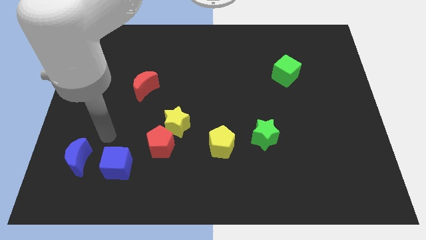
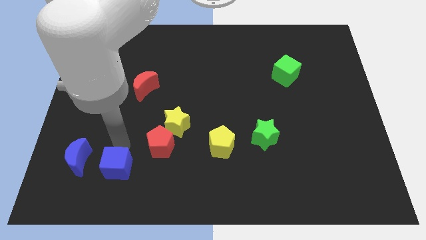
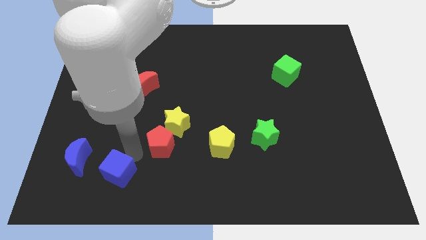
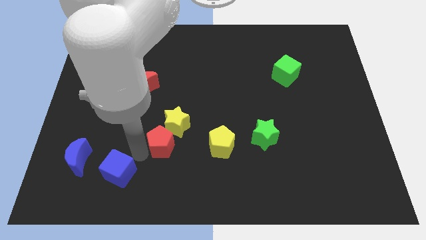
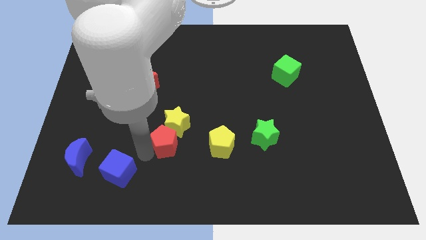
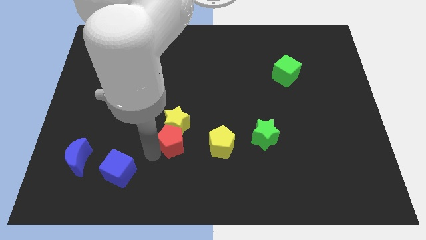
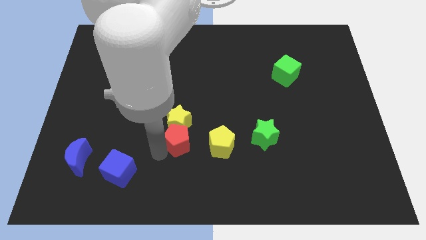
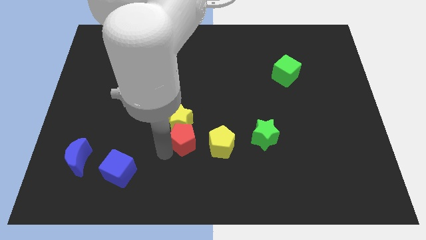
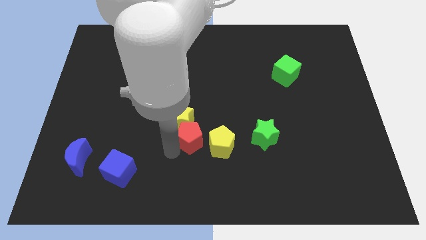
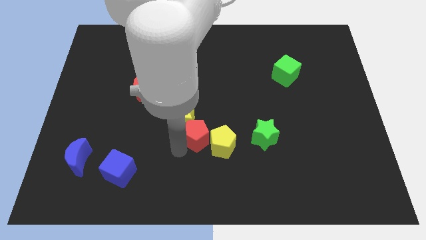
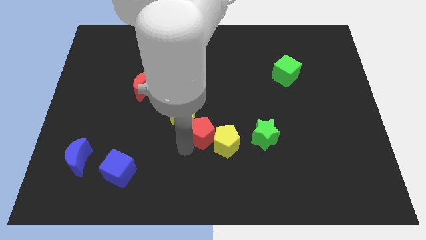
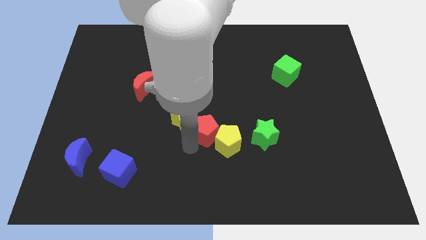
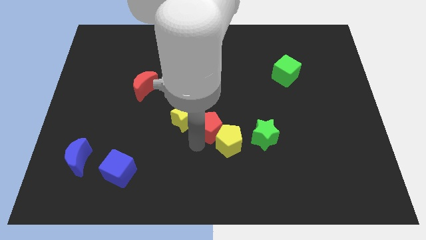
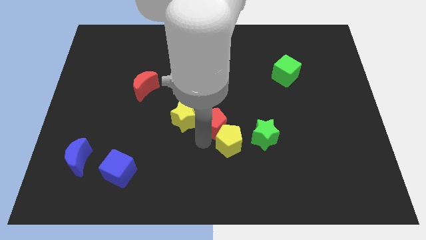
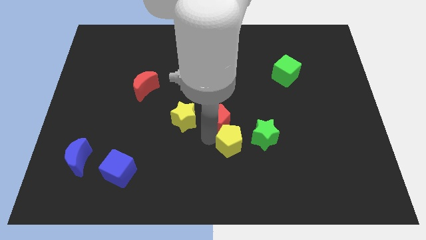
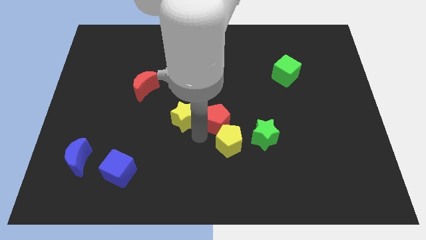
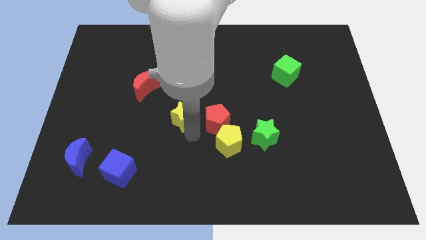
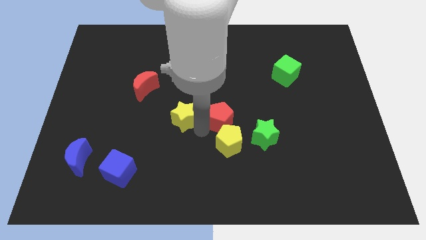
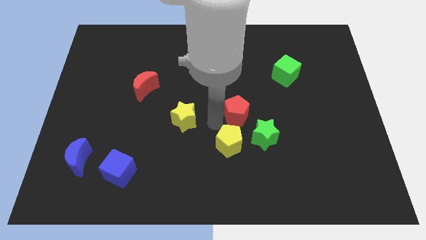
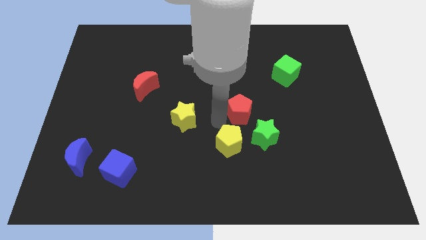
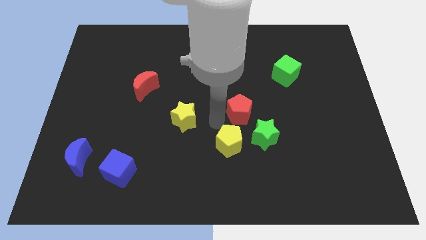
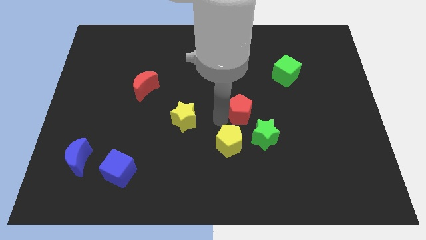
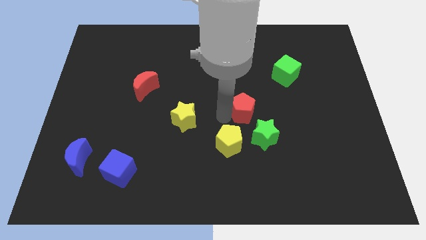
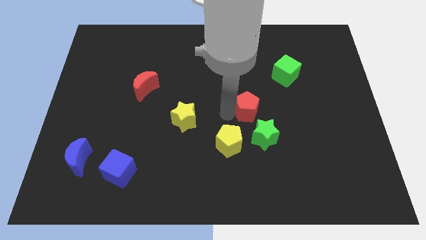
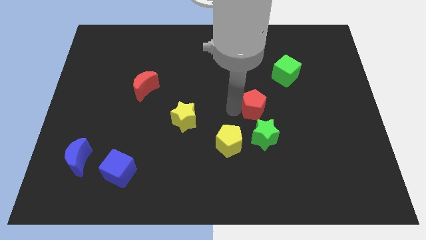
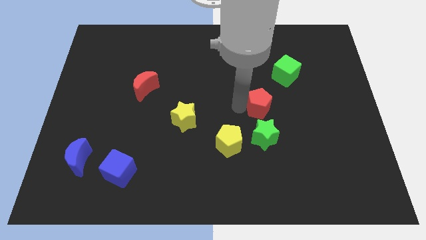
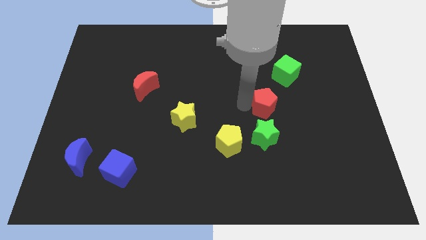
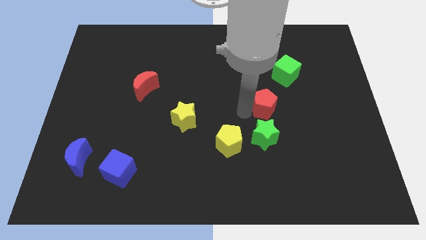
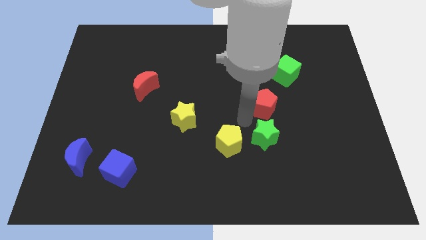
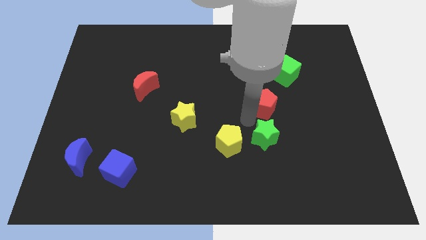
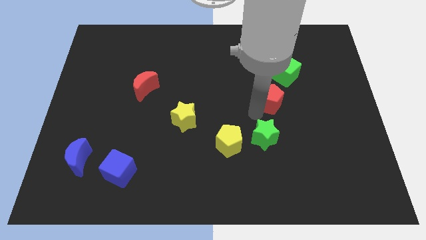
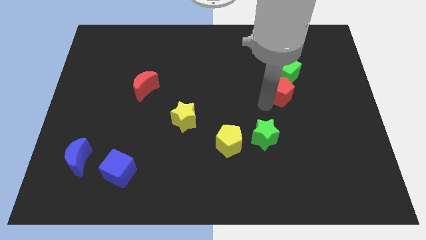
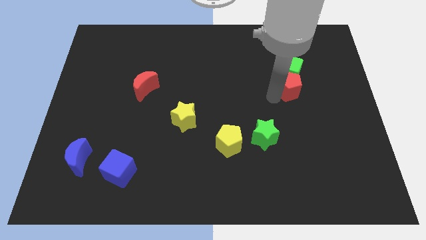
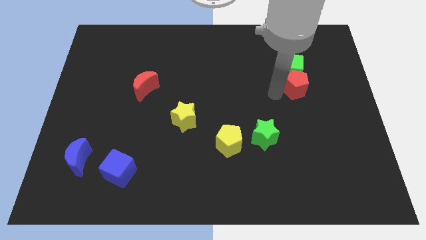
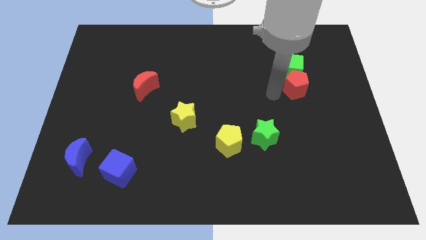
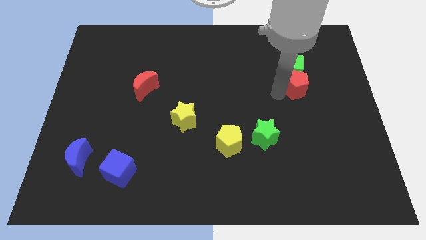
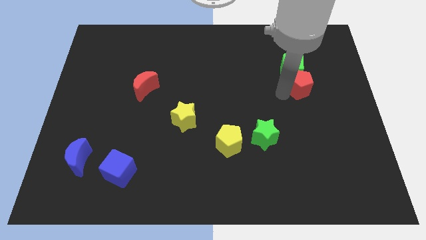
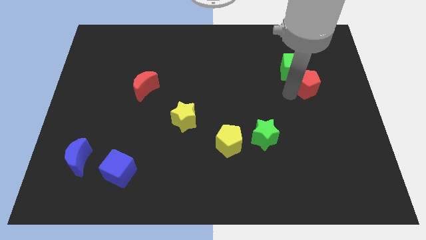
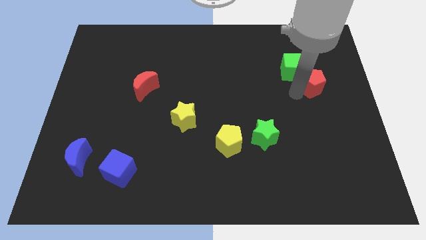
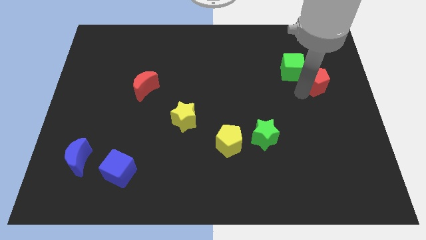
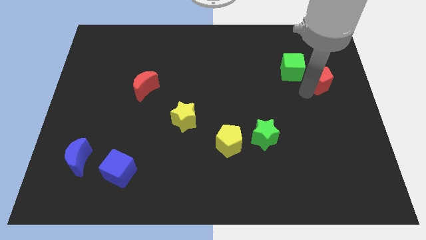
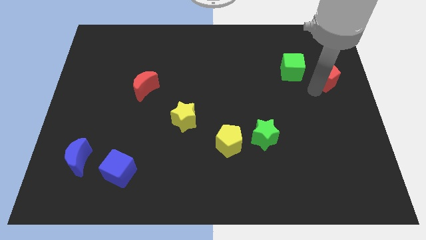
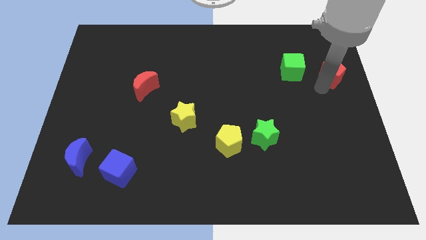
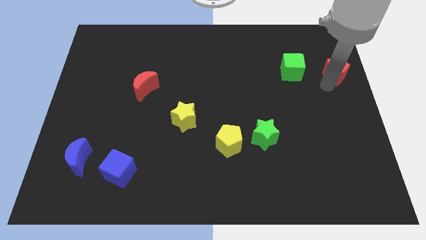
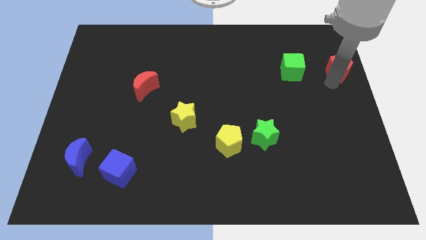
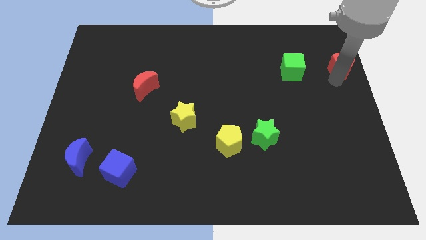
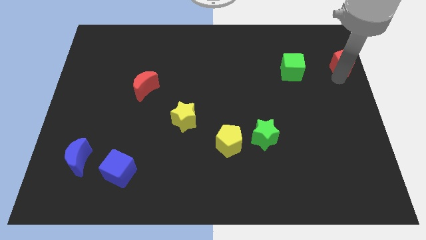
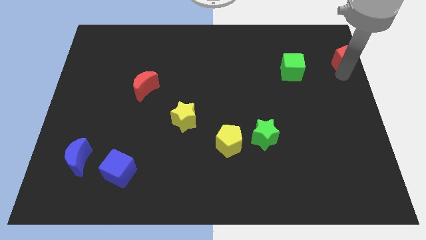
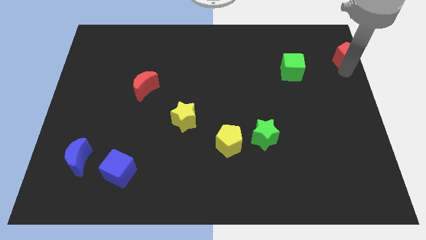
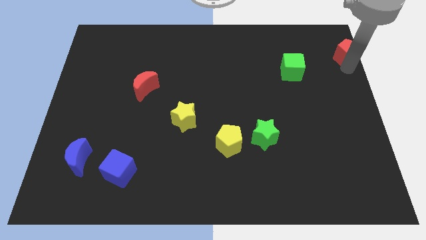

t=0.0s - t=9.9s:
put the red pentagon to the top right corner

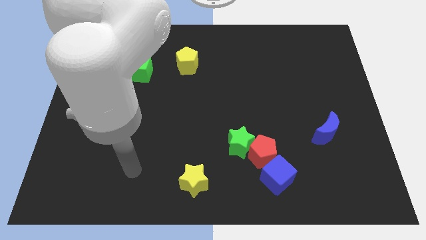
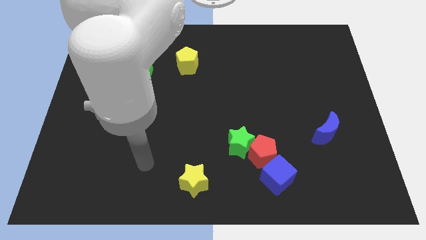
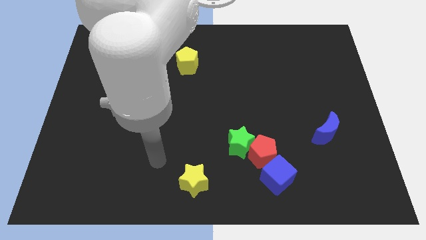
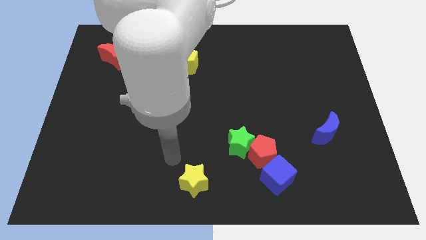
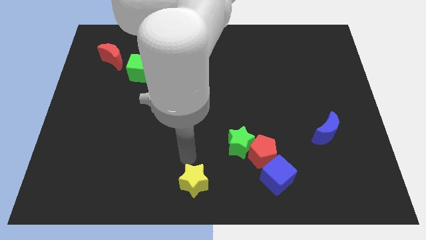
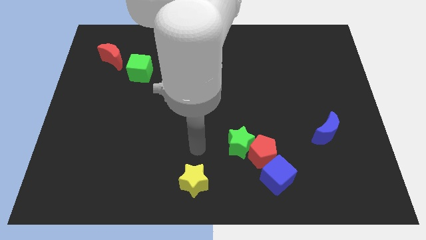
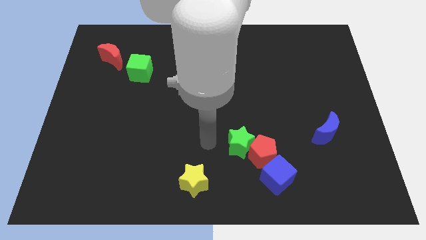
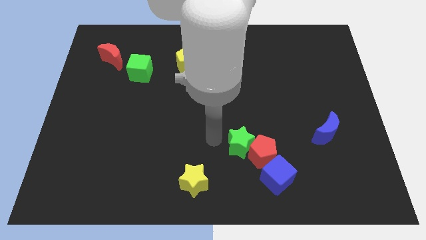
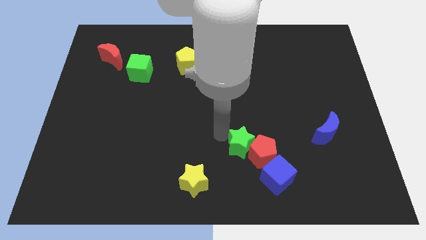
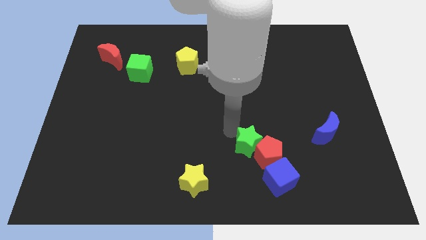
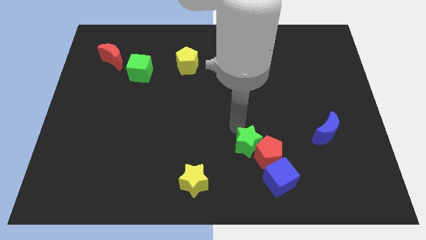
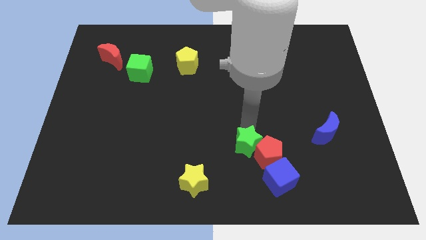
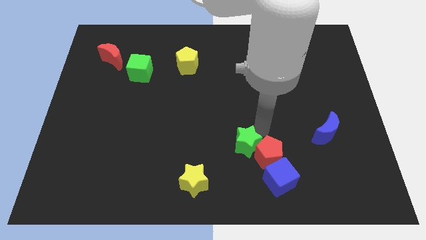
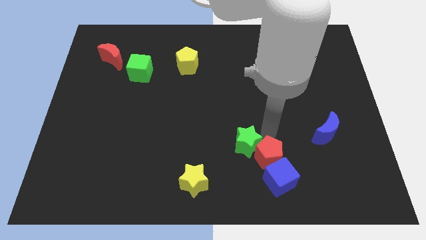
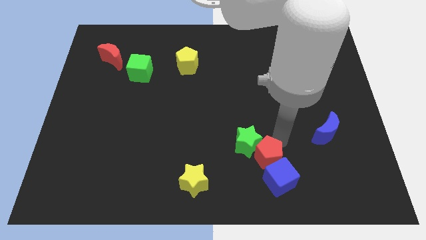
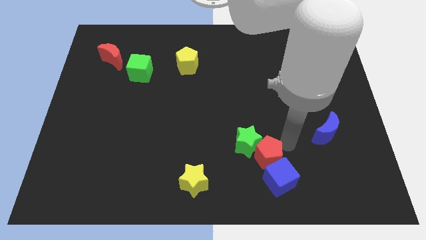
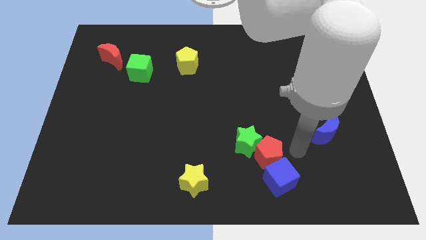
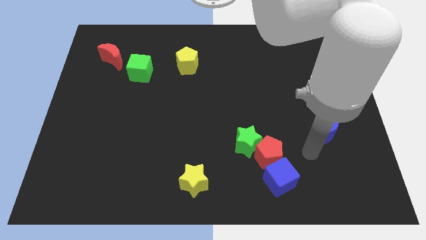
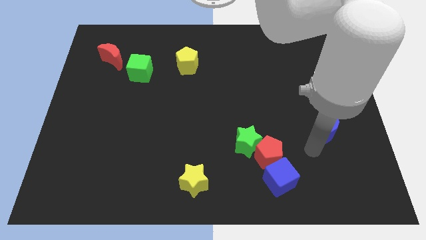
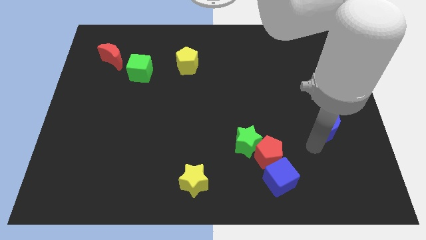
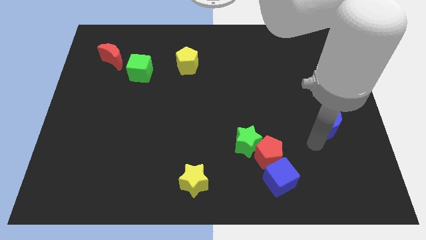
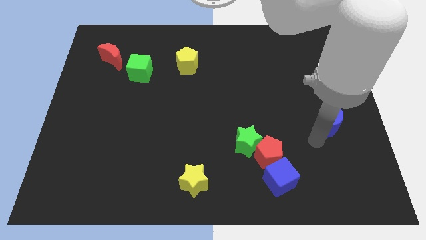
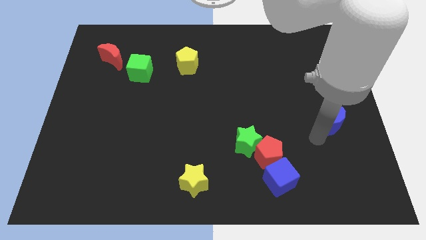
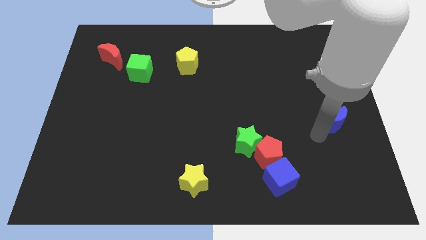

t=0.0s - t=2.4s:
slide the blue moon to the center right
